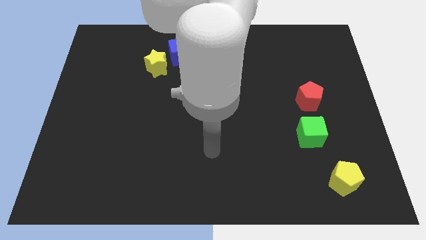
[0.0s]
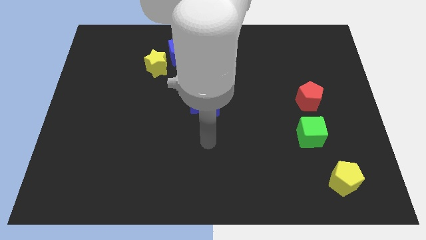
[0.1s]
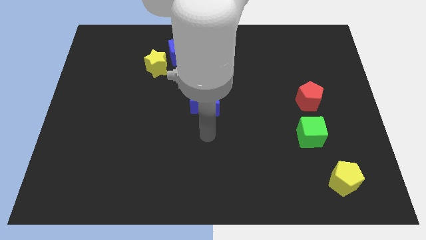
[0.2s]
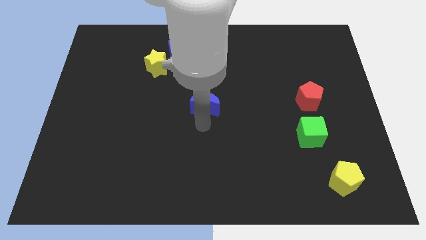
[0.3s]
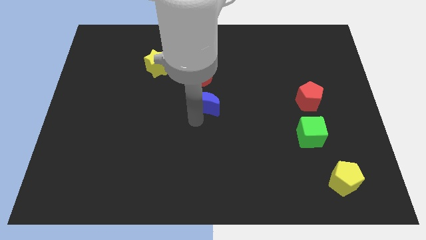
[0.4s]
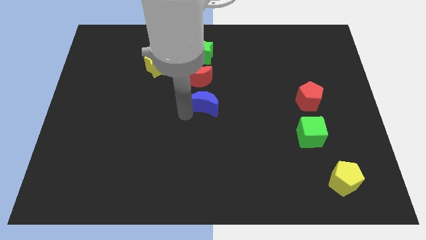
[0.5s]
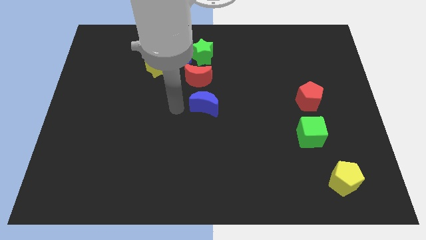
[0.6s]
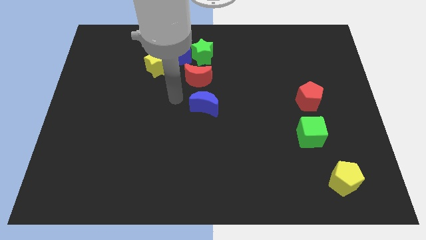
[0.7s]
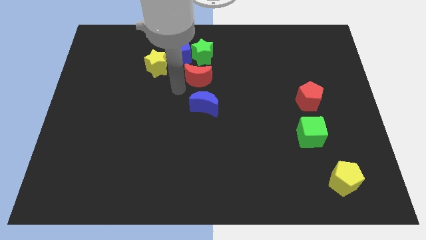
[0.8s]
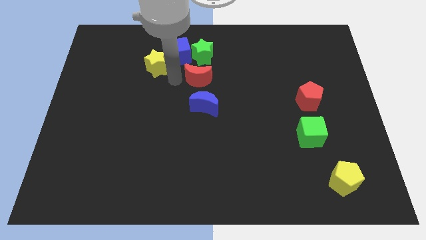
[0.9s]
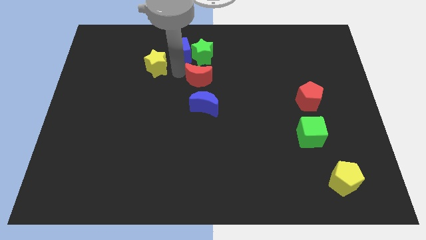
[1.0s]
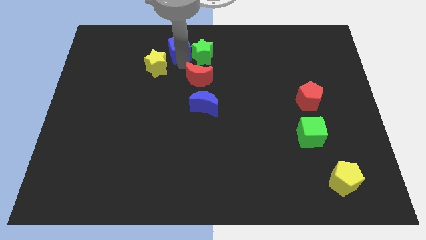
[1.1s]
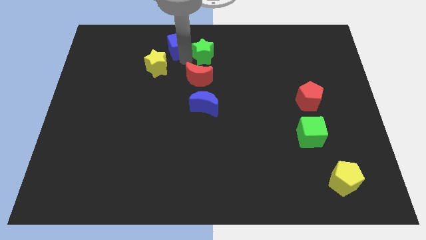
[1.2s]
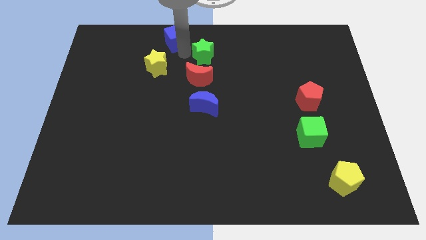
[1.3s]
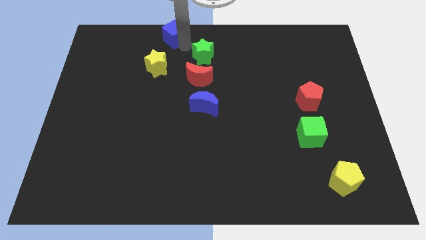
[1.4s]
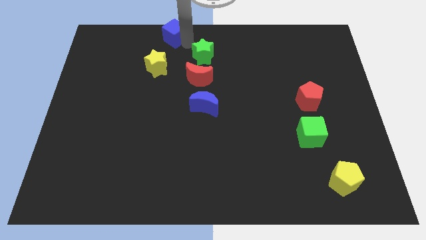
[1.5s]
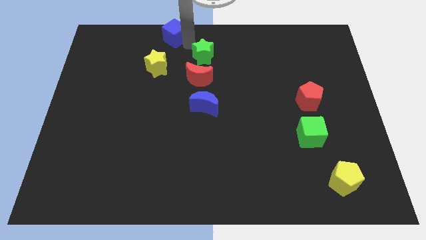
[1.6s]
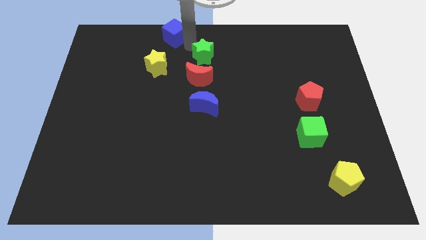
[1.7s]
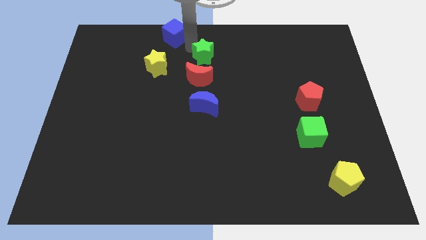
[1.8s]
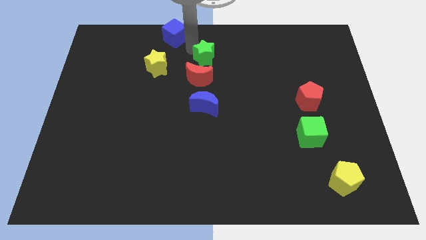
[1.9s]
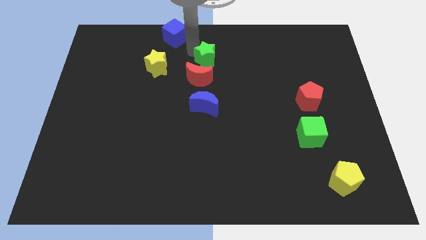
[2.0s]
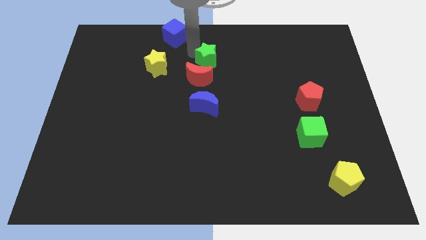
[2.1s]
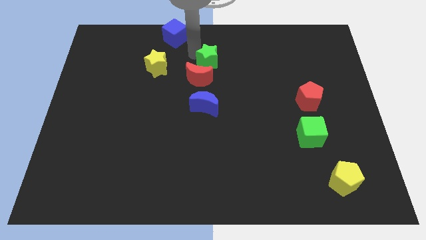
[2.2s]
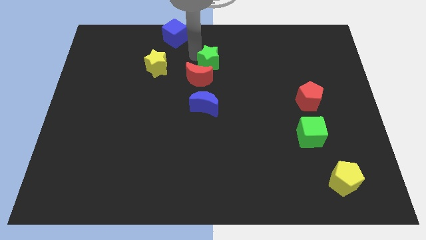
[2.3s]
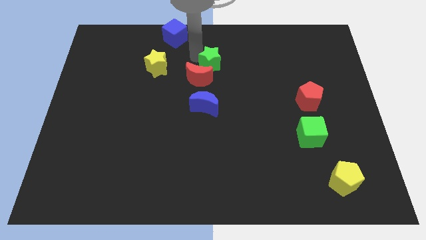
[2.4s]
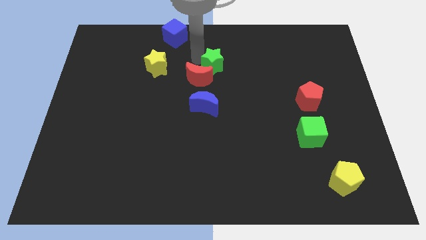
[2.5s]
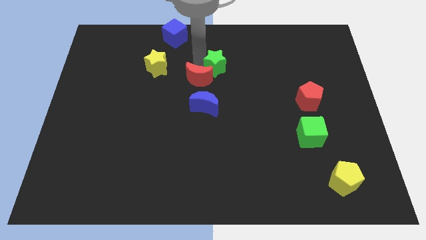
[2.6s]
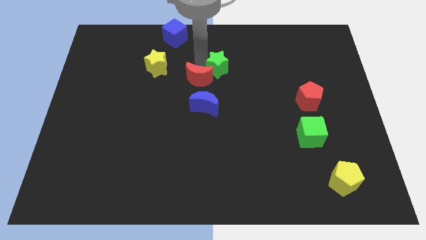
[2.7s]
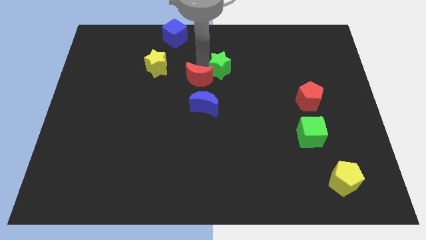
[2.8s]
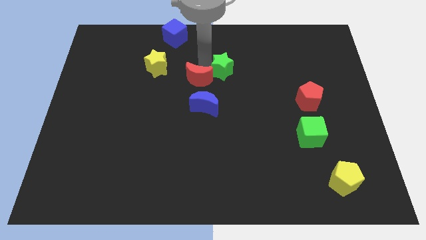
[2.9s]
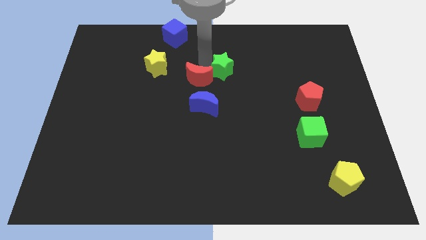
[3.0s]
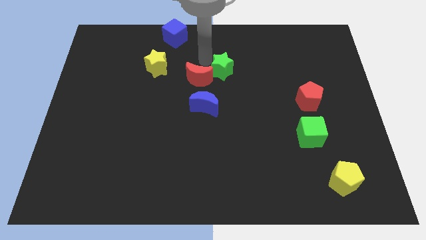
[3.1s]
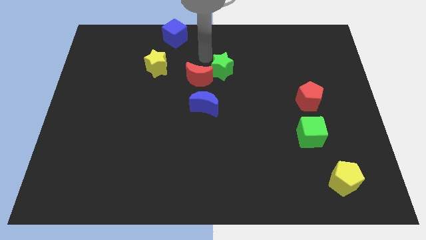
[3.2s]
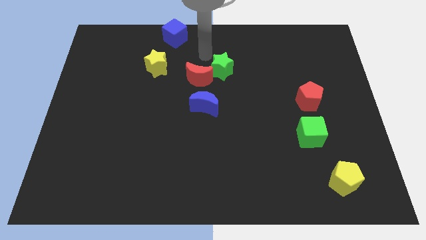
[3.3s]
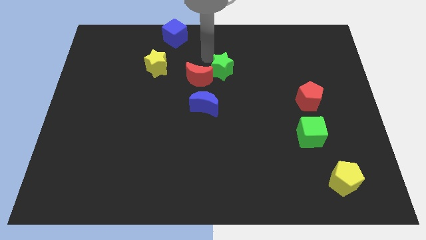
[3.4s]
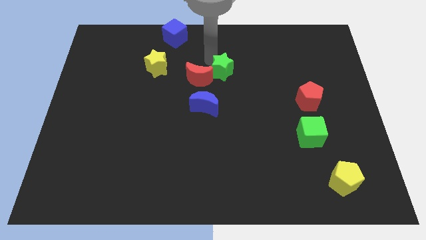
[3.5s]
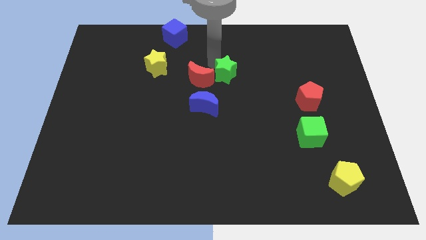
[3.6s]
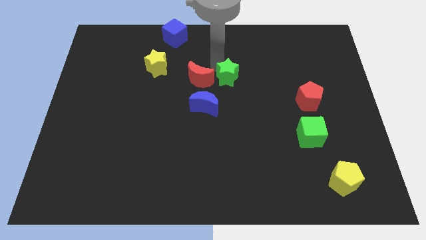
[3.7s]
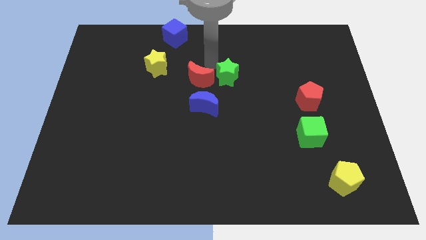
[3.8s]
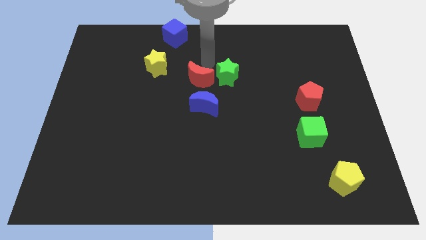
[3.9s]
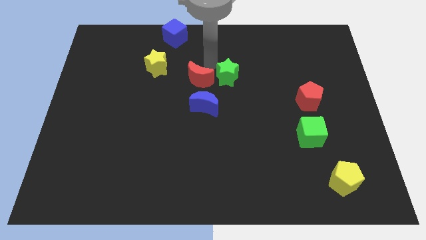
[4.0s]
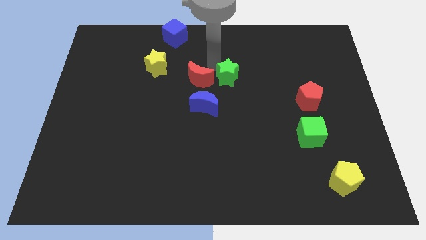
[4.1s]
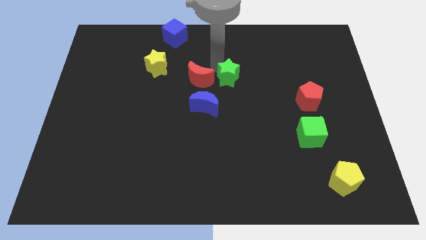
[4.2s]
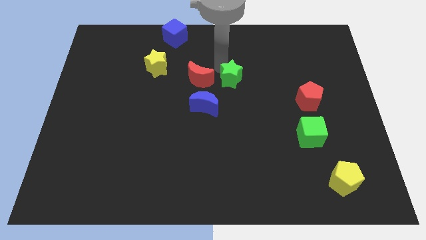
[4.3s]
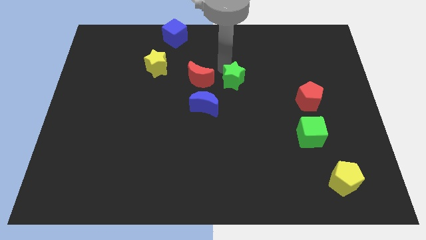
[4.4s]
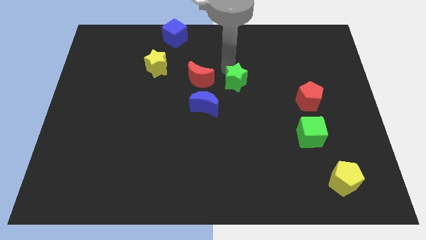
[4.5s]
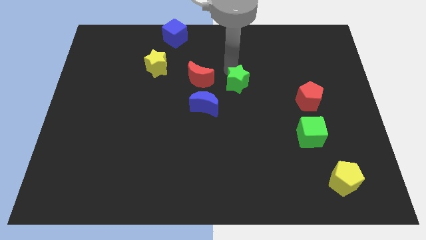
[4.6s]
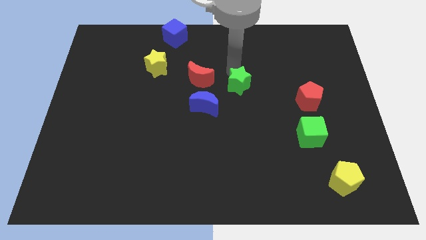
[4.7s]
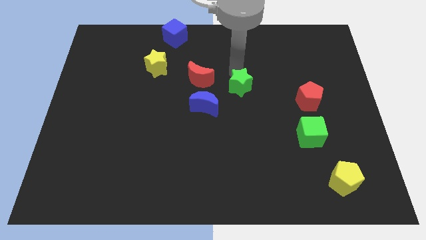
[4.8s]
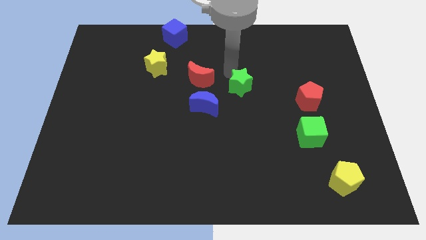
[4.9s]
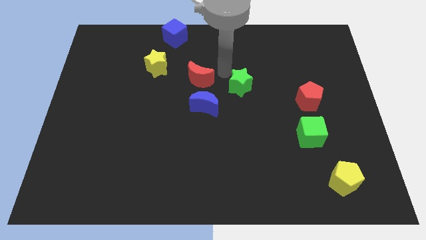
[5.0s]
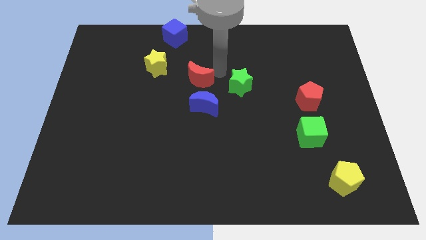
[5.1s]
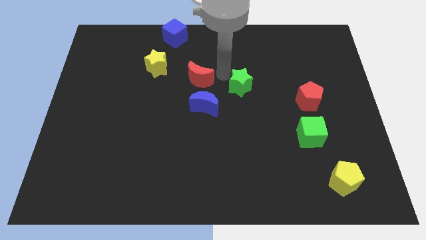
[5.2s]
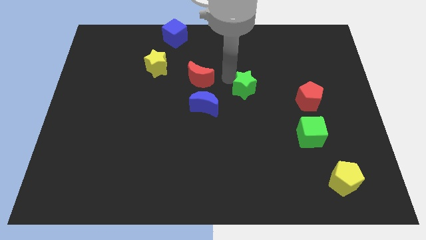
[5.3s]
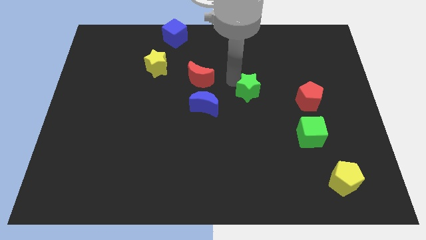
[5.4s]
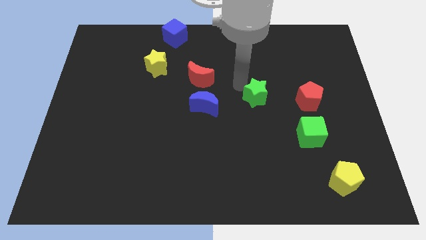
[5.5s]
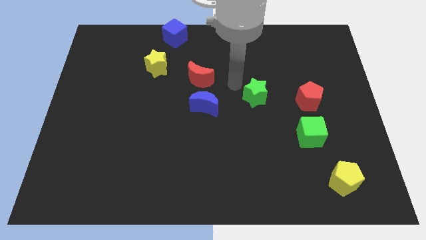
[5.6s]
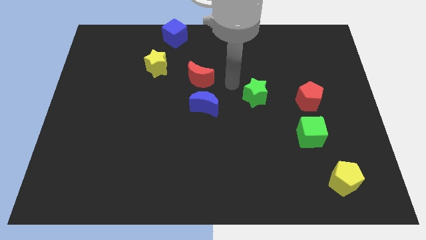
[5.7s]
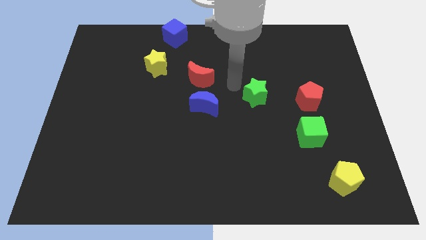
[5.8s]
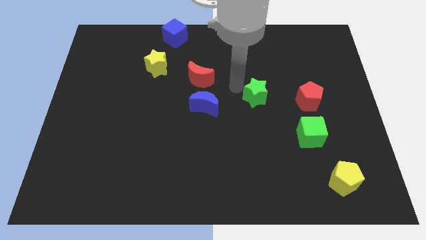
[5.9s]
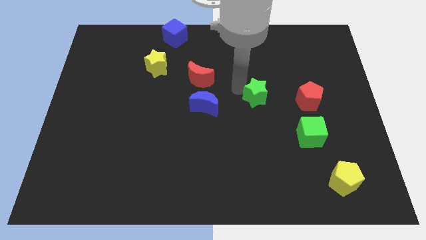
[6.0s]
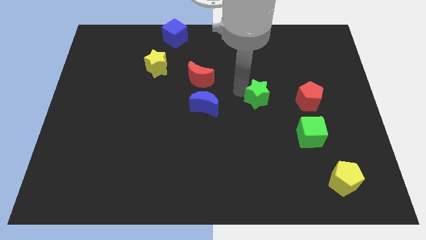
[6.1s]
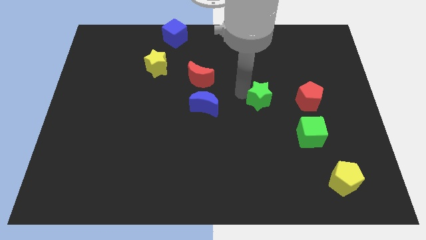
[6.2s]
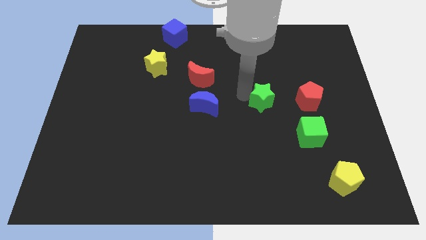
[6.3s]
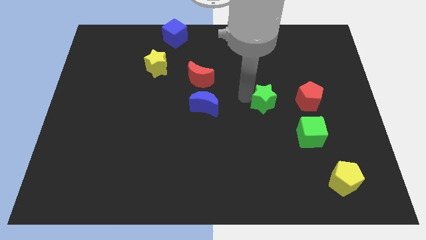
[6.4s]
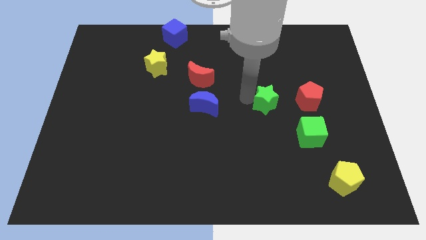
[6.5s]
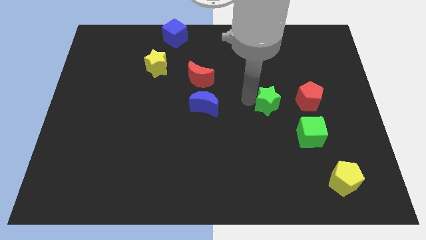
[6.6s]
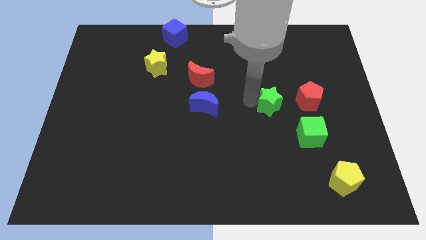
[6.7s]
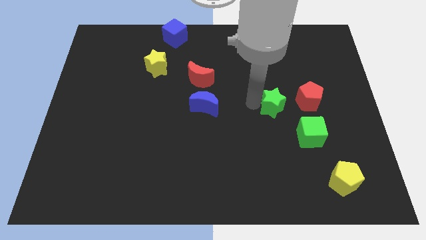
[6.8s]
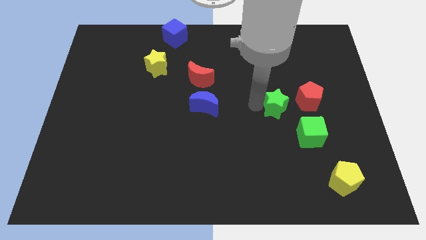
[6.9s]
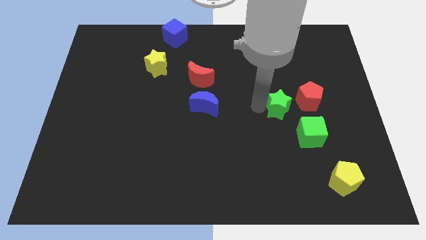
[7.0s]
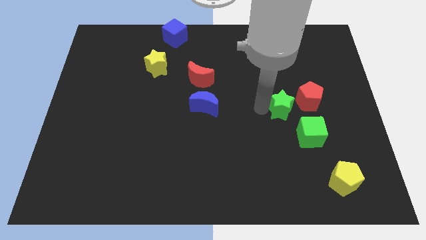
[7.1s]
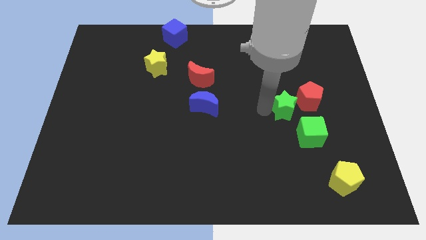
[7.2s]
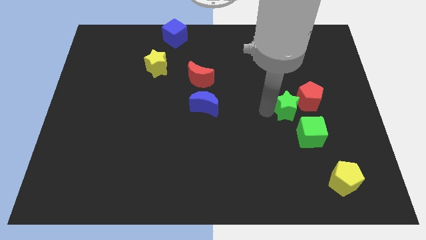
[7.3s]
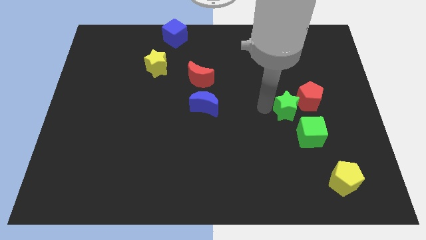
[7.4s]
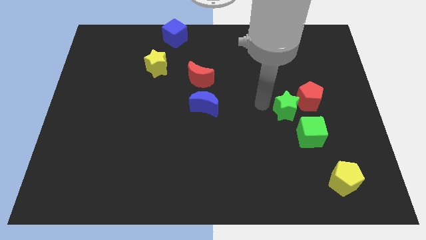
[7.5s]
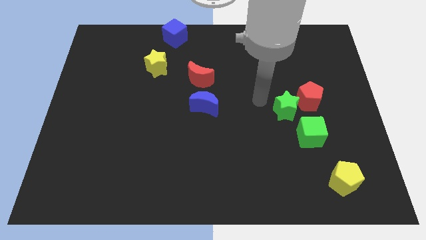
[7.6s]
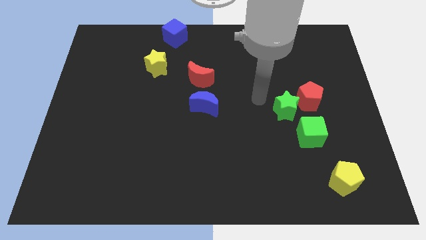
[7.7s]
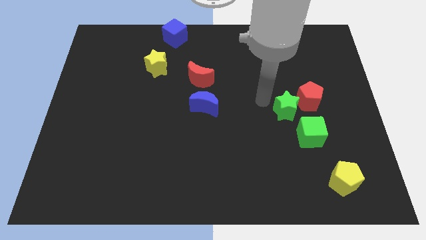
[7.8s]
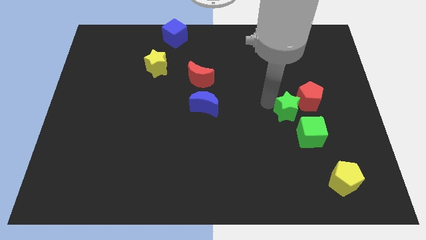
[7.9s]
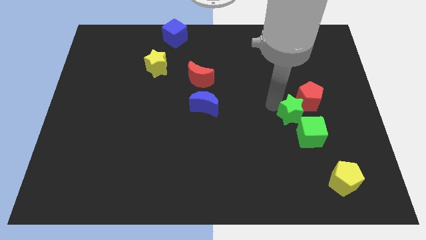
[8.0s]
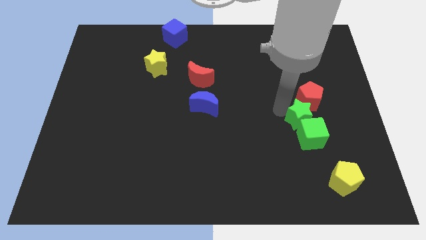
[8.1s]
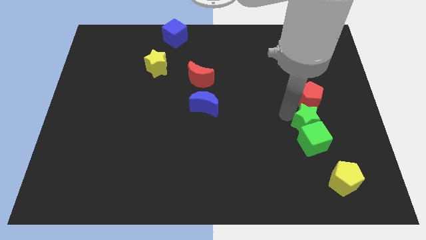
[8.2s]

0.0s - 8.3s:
put the green star to the top right side of the green cube
